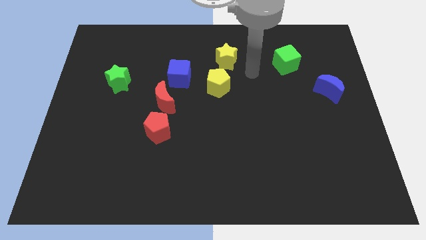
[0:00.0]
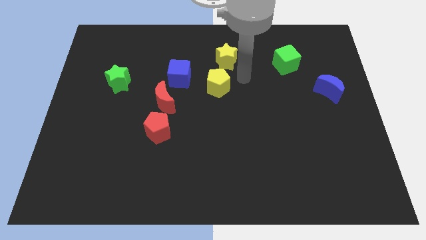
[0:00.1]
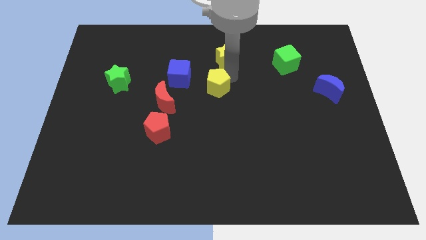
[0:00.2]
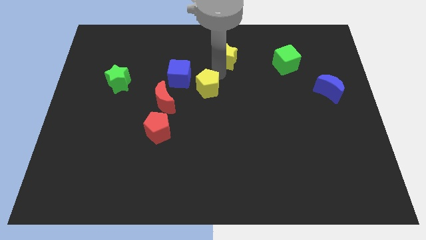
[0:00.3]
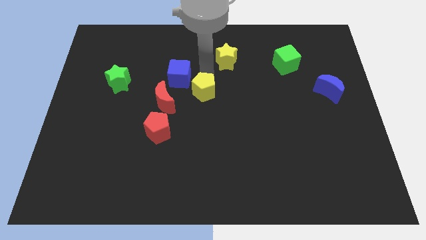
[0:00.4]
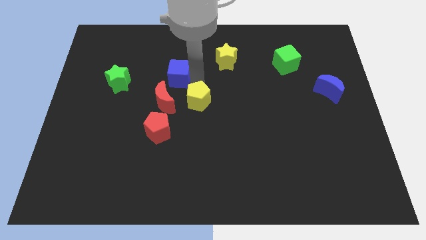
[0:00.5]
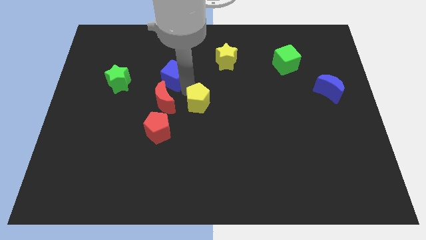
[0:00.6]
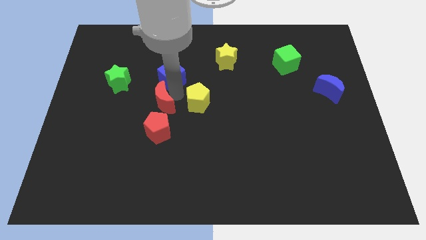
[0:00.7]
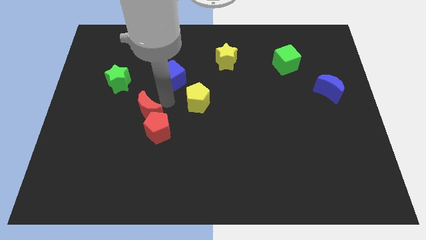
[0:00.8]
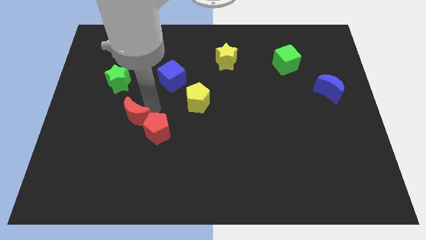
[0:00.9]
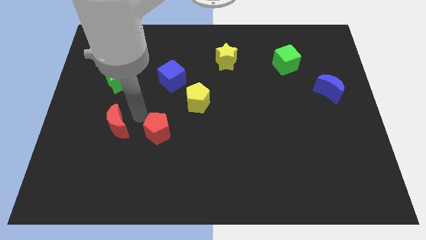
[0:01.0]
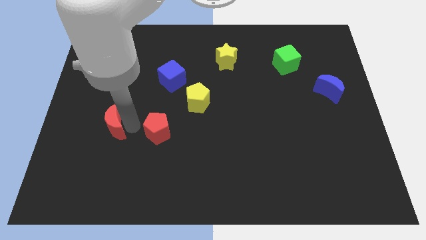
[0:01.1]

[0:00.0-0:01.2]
pull the red pentagon apart from the red moon

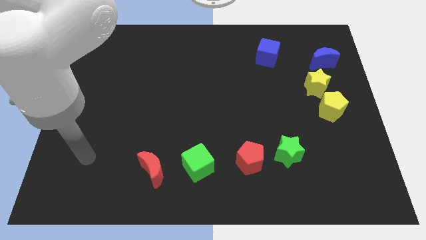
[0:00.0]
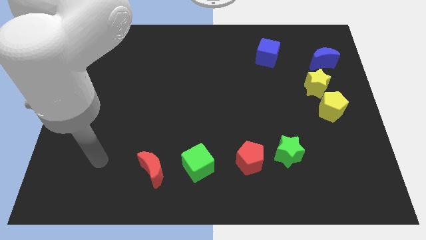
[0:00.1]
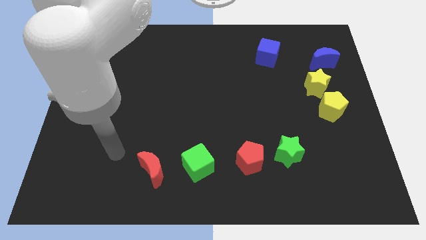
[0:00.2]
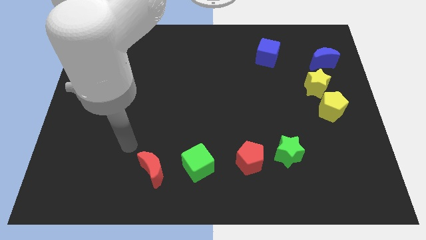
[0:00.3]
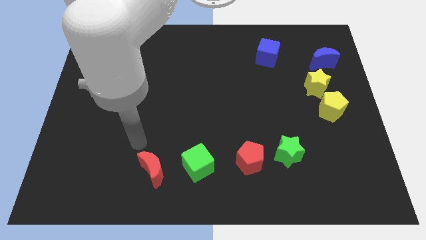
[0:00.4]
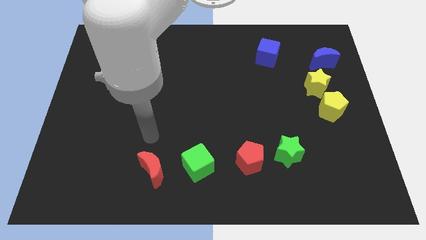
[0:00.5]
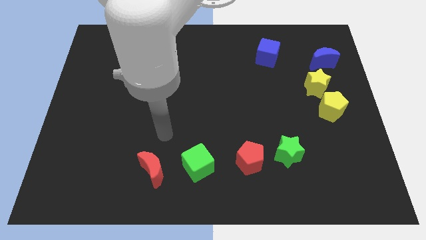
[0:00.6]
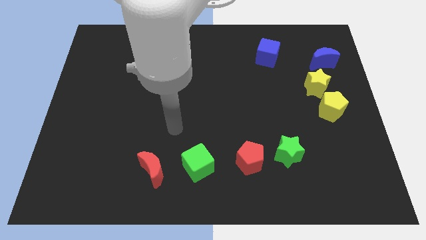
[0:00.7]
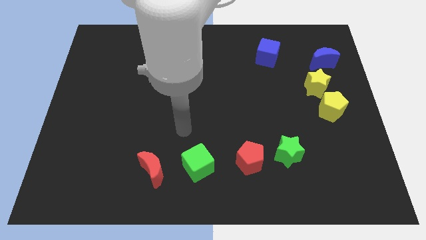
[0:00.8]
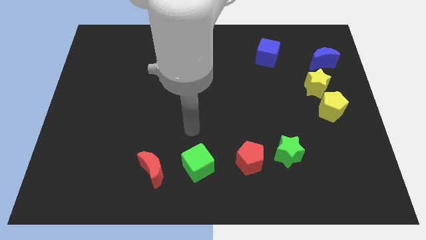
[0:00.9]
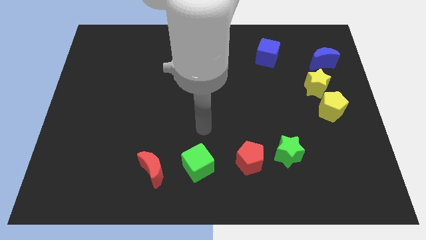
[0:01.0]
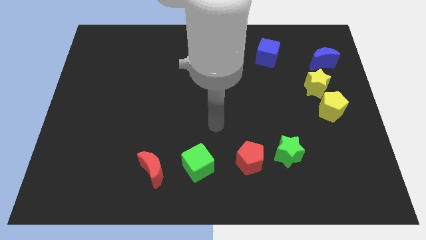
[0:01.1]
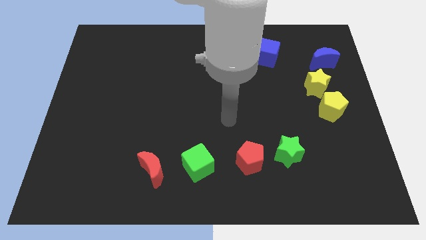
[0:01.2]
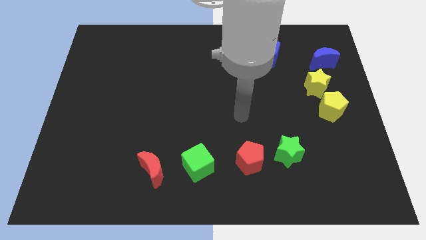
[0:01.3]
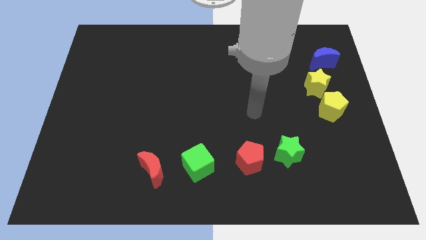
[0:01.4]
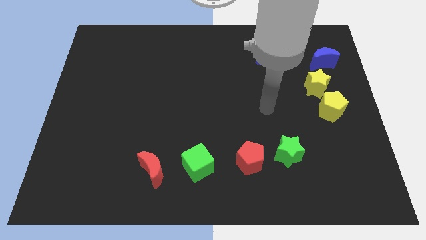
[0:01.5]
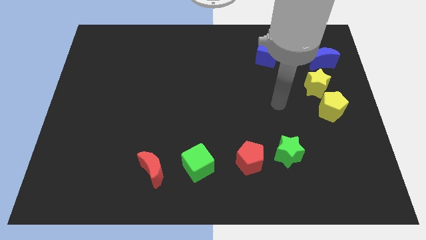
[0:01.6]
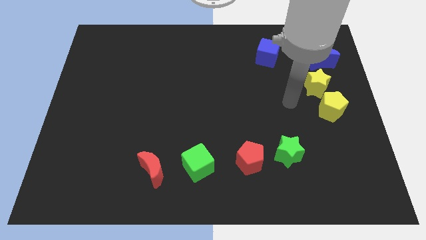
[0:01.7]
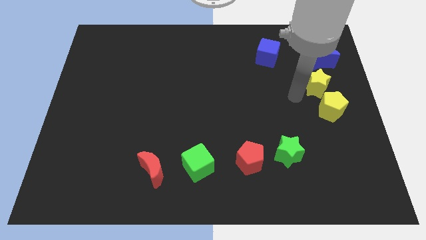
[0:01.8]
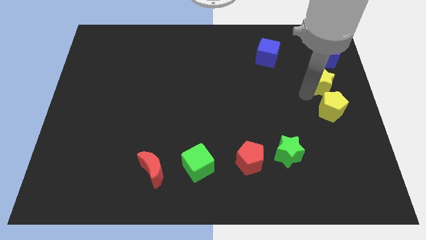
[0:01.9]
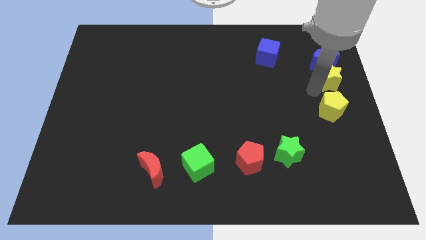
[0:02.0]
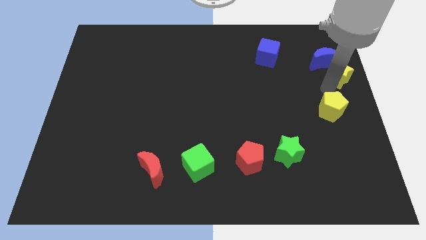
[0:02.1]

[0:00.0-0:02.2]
separate the yellow pentagon from the yellow star

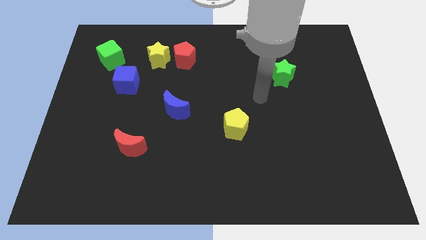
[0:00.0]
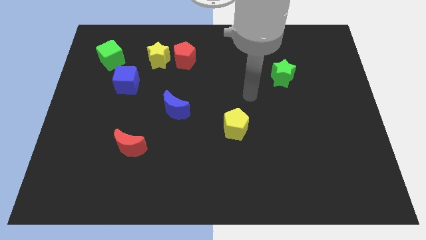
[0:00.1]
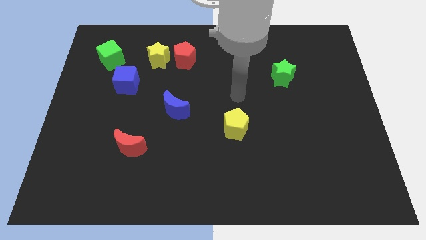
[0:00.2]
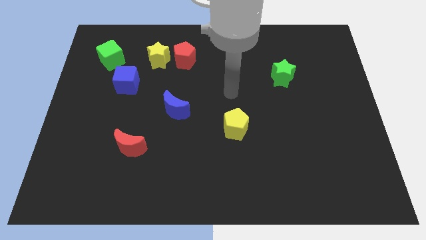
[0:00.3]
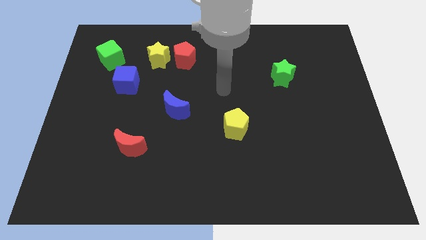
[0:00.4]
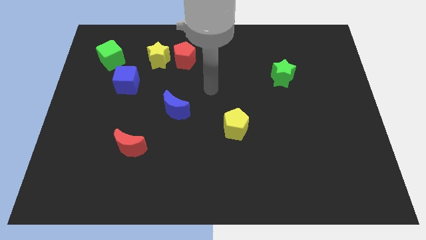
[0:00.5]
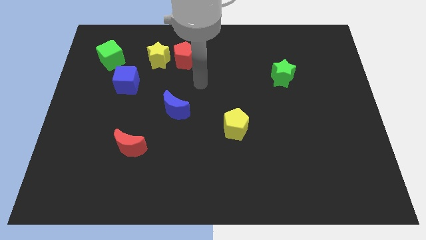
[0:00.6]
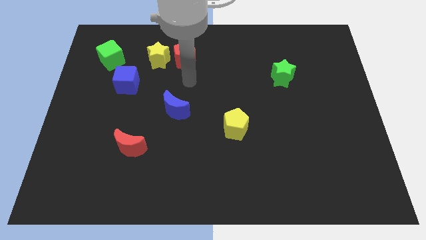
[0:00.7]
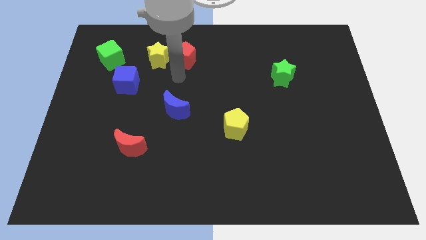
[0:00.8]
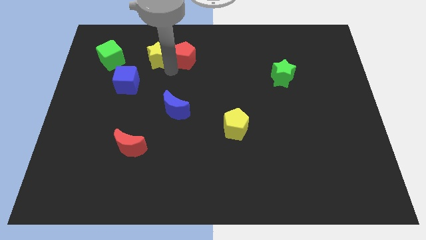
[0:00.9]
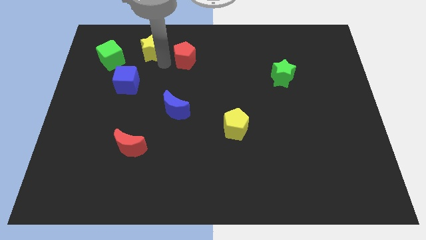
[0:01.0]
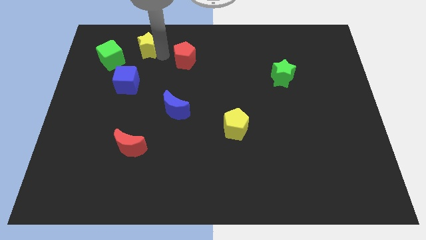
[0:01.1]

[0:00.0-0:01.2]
separate the red pentagon from the yellow star

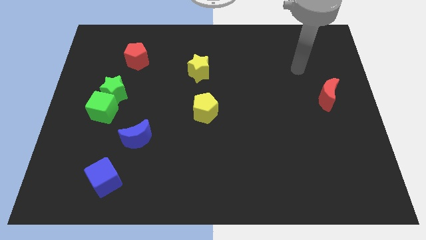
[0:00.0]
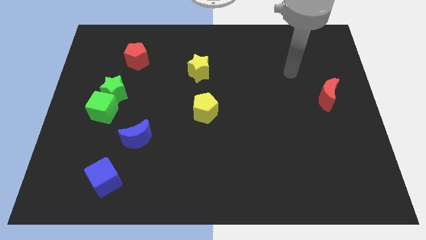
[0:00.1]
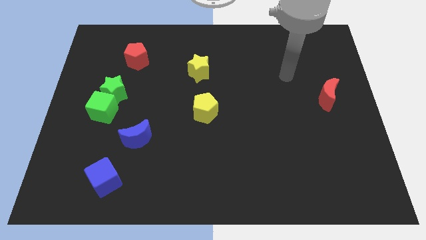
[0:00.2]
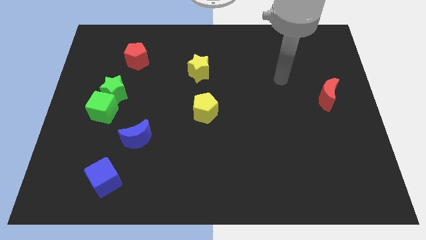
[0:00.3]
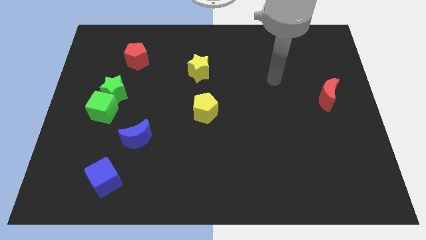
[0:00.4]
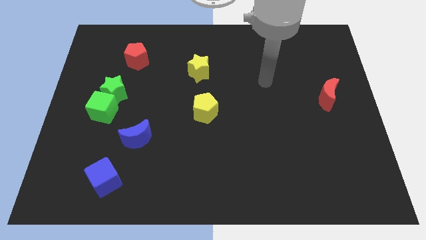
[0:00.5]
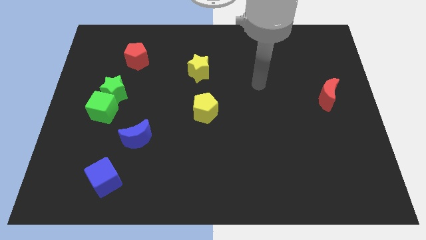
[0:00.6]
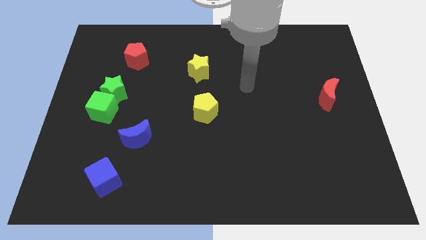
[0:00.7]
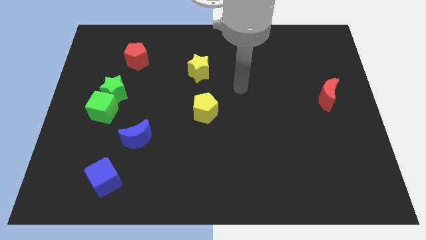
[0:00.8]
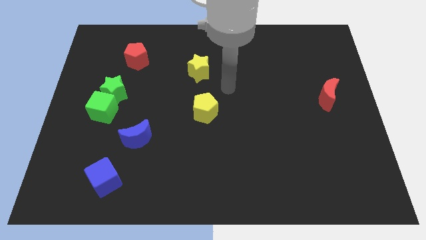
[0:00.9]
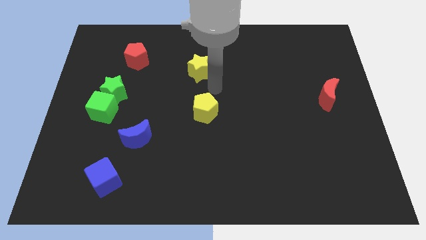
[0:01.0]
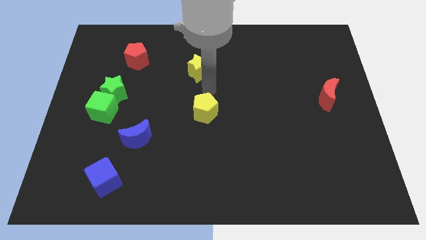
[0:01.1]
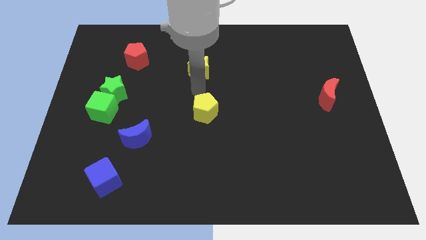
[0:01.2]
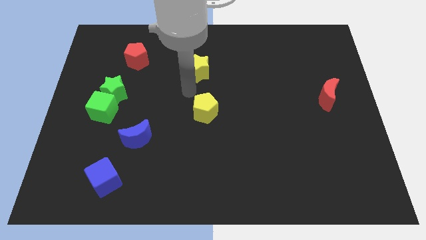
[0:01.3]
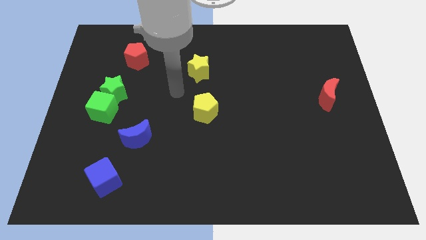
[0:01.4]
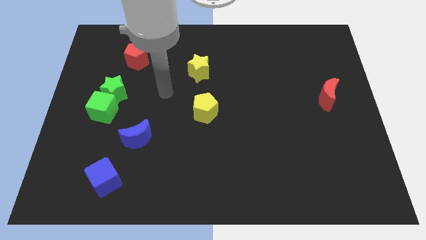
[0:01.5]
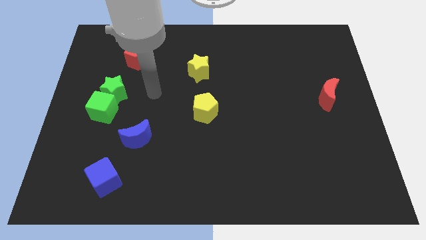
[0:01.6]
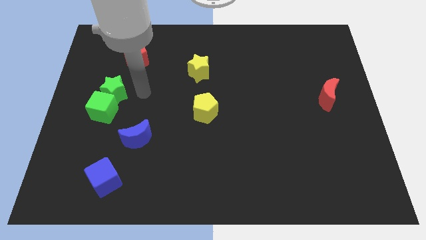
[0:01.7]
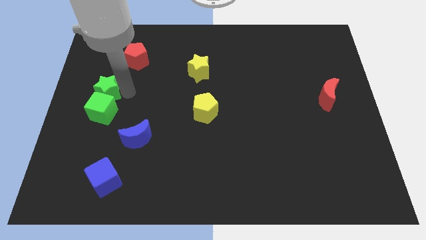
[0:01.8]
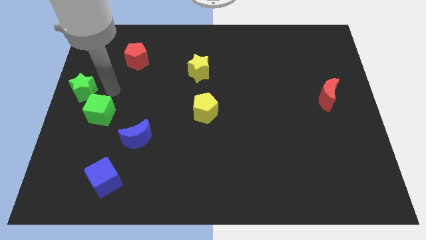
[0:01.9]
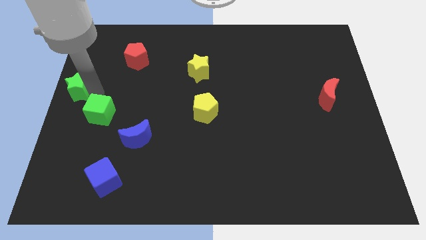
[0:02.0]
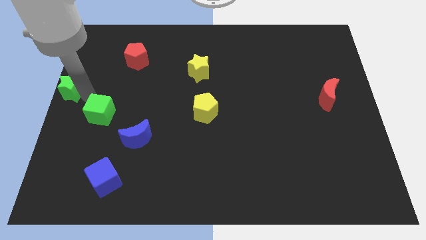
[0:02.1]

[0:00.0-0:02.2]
separate the green cube from the green star

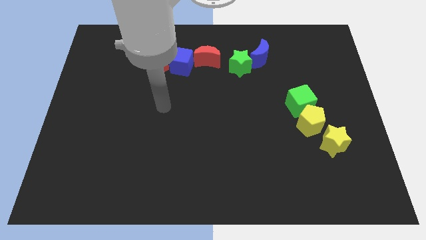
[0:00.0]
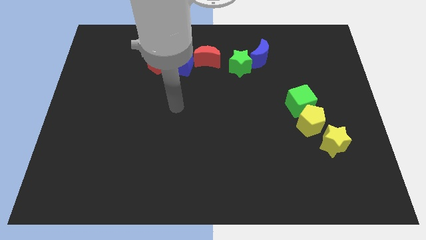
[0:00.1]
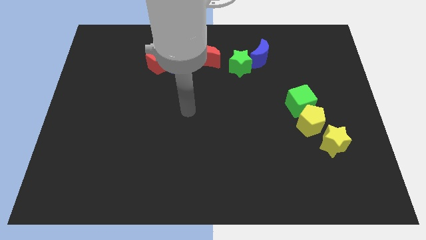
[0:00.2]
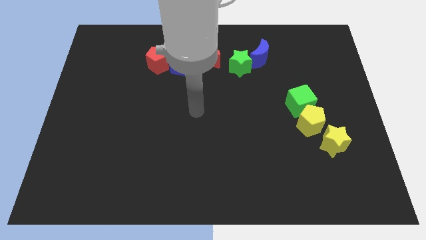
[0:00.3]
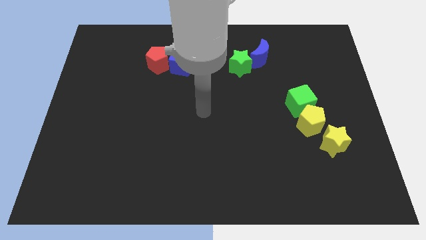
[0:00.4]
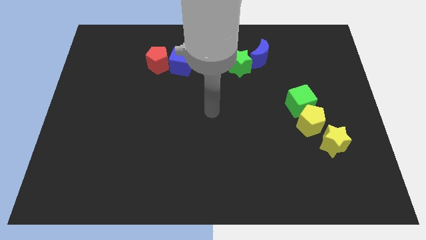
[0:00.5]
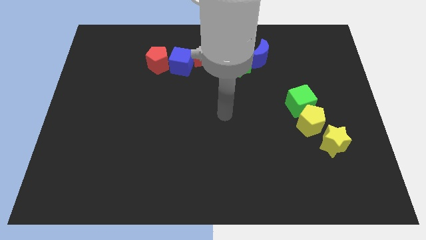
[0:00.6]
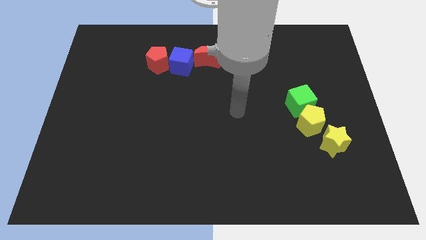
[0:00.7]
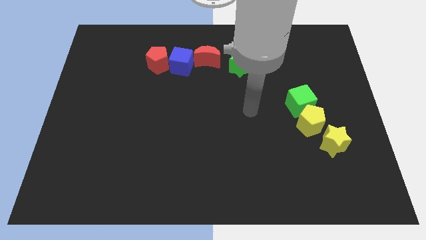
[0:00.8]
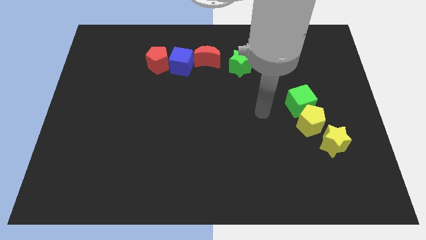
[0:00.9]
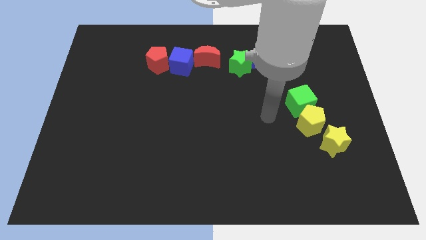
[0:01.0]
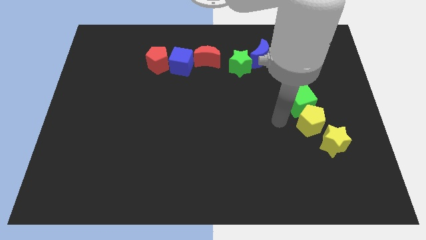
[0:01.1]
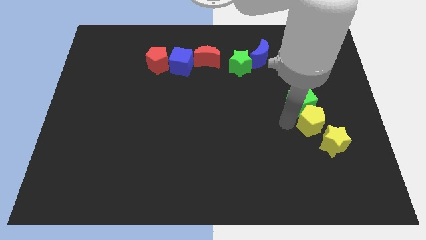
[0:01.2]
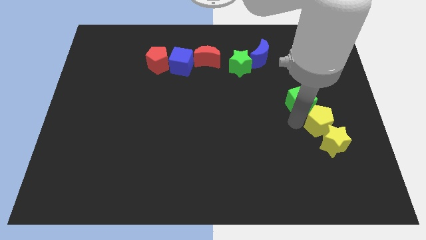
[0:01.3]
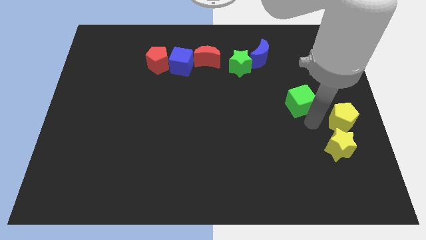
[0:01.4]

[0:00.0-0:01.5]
move the green cube away from the yellow pentagon

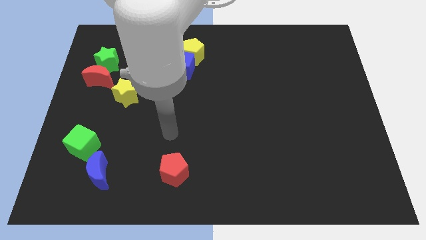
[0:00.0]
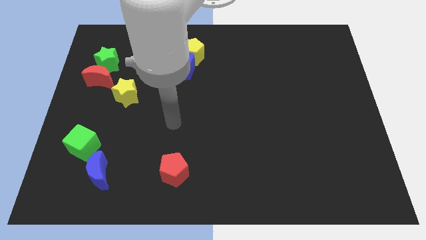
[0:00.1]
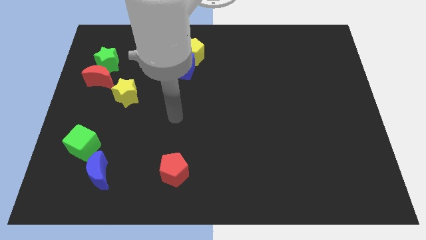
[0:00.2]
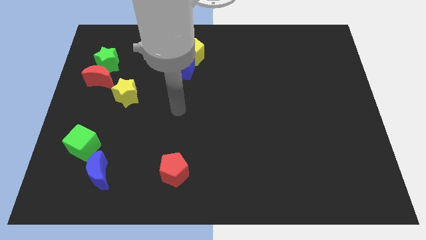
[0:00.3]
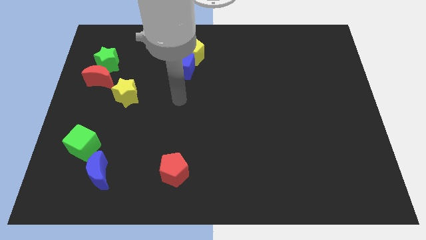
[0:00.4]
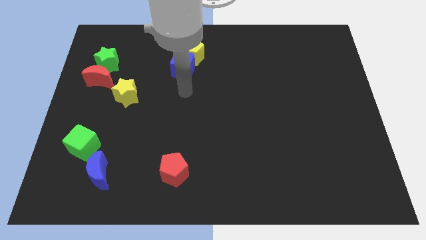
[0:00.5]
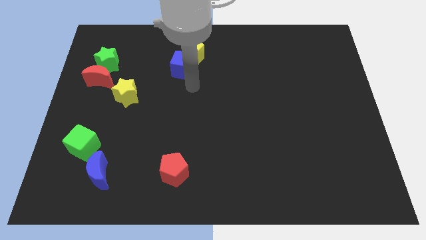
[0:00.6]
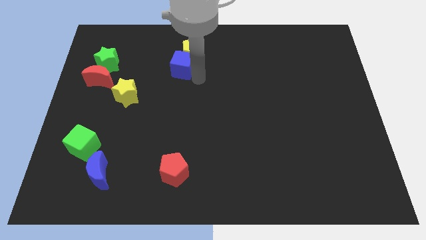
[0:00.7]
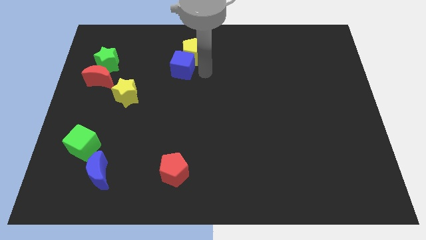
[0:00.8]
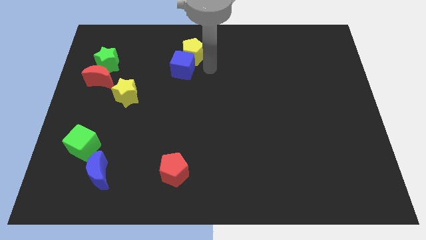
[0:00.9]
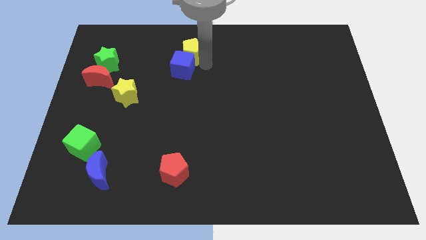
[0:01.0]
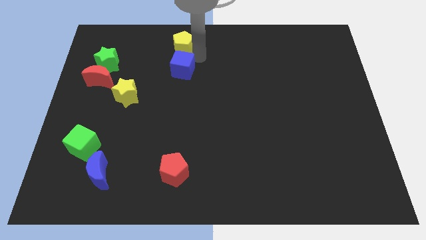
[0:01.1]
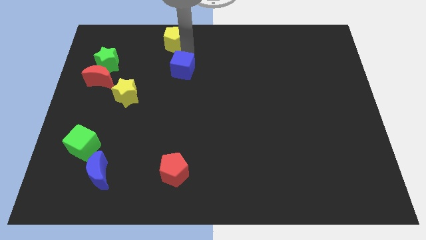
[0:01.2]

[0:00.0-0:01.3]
pull the blue cube apart from the yellow pentagon
